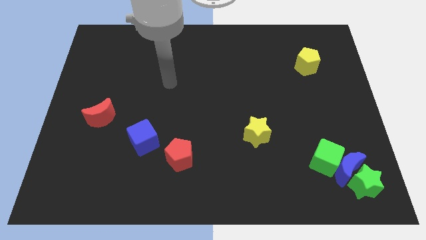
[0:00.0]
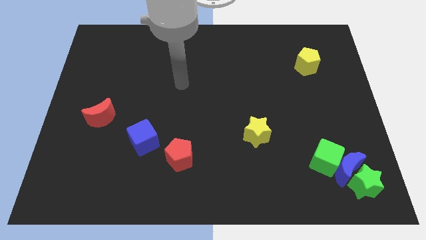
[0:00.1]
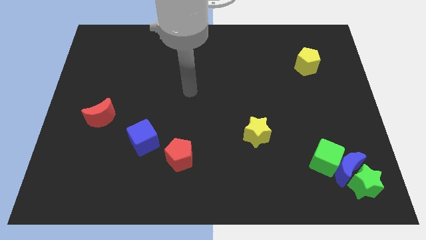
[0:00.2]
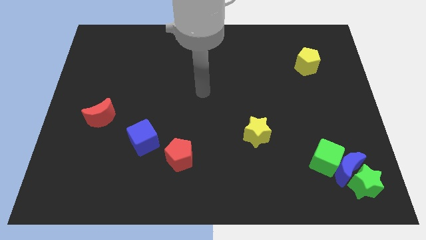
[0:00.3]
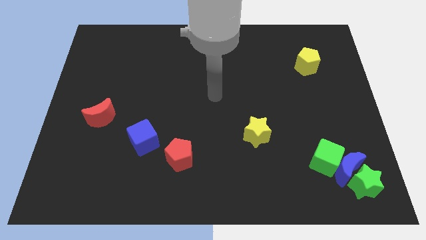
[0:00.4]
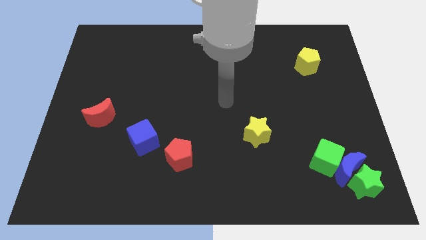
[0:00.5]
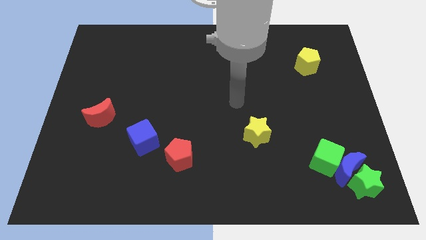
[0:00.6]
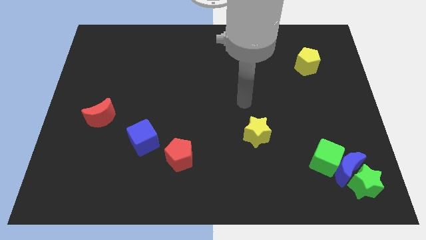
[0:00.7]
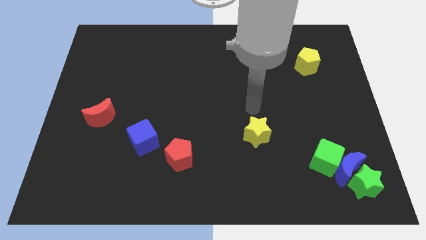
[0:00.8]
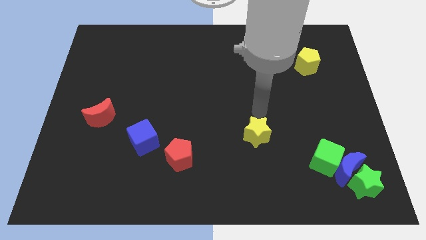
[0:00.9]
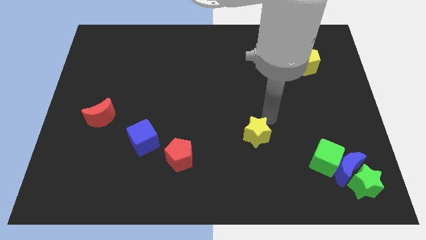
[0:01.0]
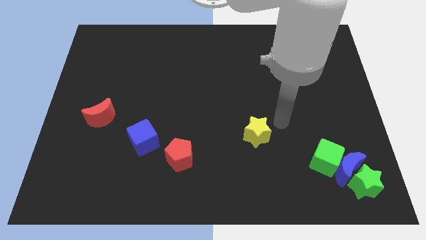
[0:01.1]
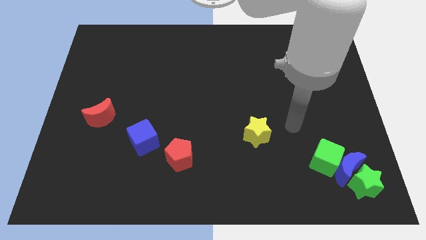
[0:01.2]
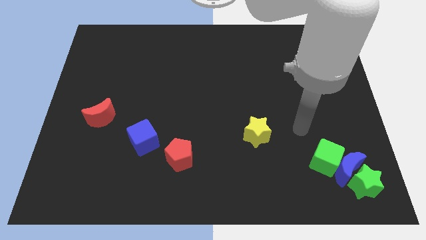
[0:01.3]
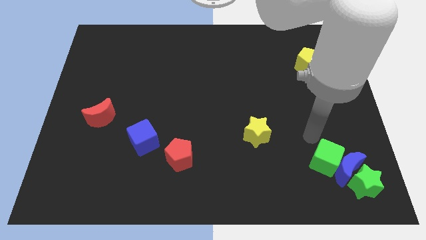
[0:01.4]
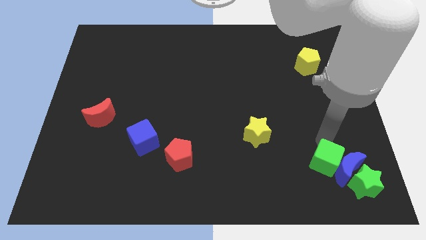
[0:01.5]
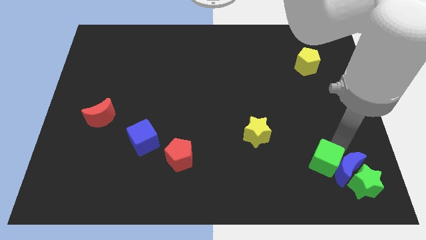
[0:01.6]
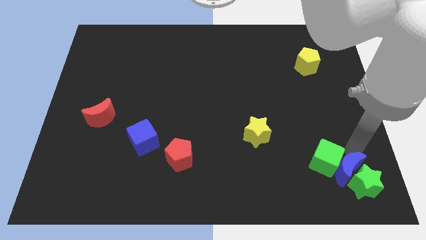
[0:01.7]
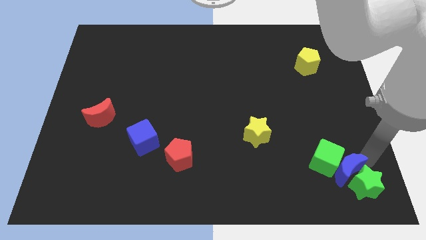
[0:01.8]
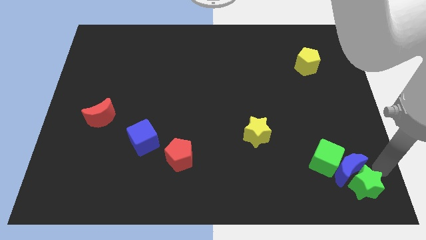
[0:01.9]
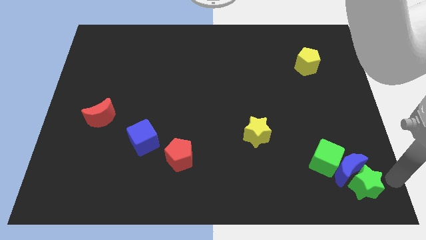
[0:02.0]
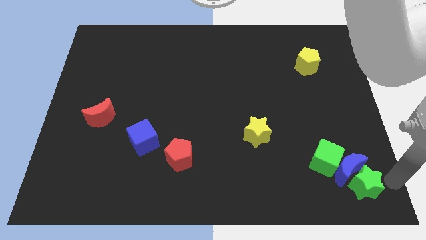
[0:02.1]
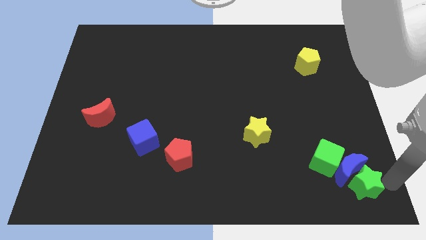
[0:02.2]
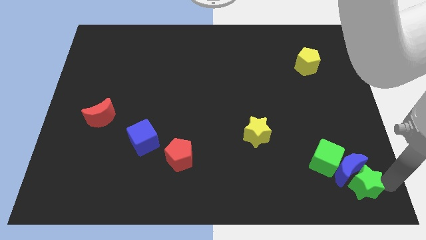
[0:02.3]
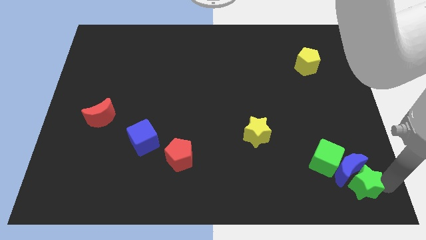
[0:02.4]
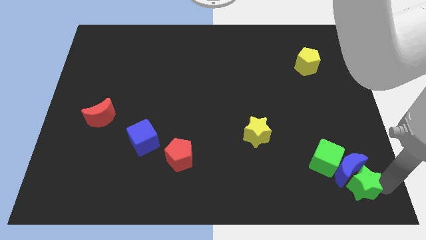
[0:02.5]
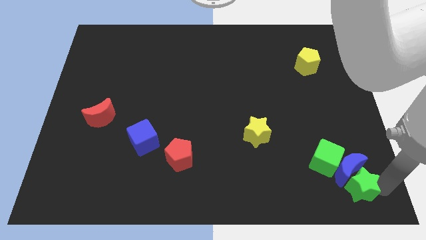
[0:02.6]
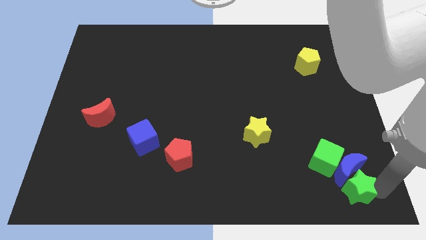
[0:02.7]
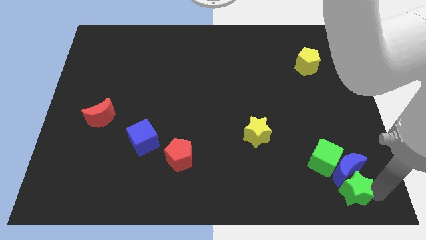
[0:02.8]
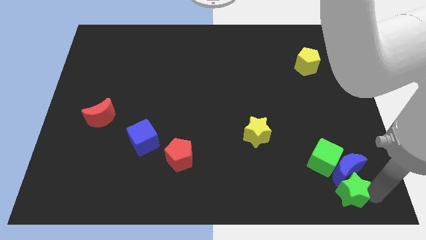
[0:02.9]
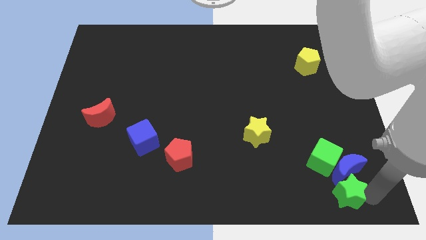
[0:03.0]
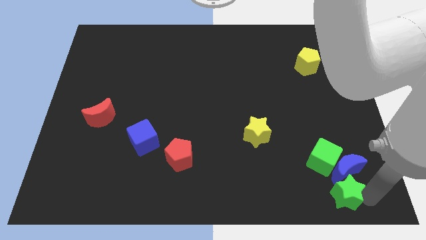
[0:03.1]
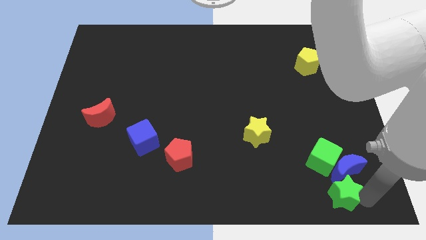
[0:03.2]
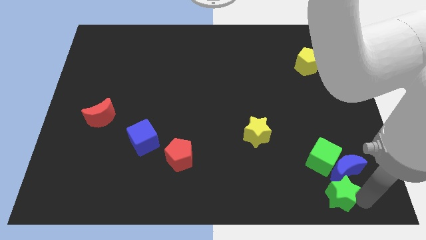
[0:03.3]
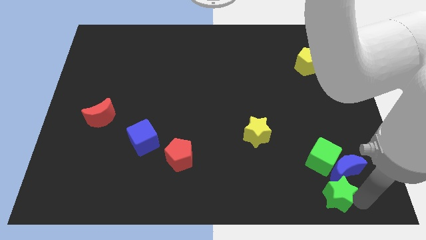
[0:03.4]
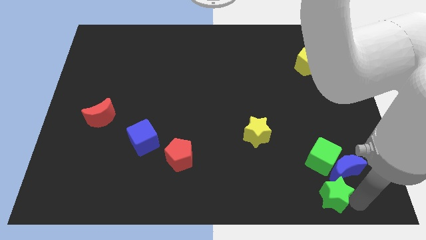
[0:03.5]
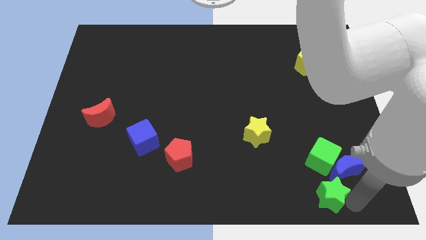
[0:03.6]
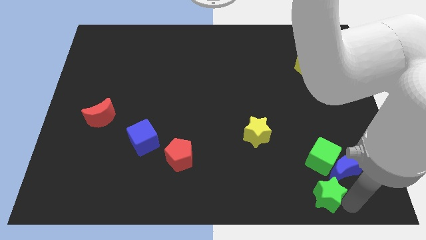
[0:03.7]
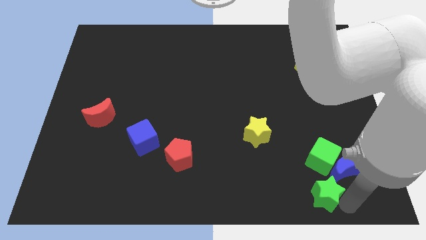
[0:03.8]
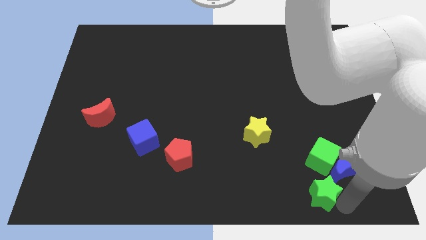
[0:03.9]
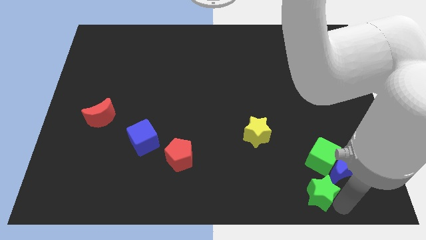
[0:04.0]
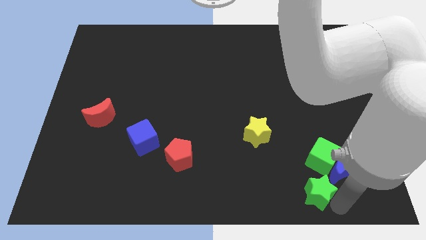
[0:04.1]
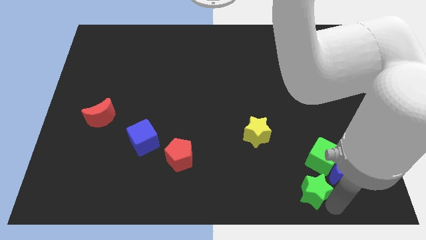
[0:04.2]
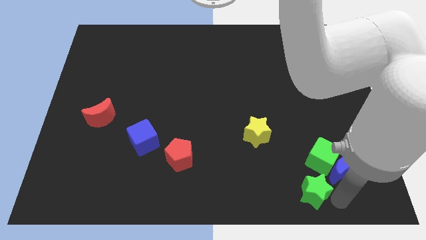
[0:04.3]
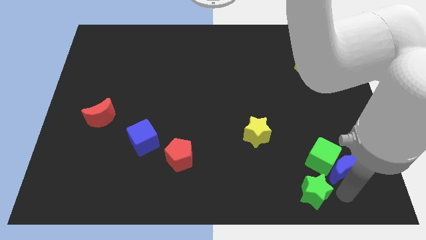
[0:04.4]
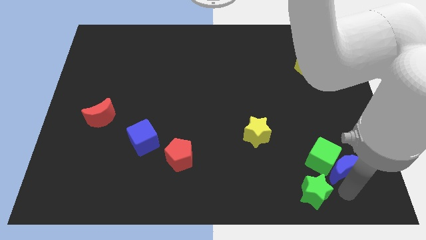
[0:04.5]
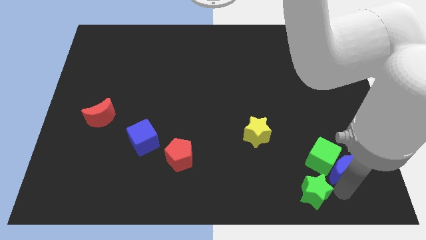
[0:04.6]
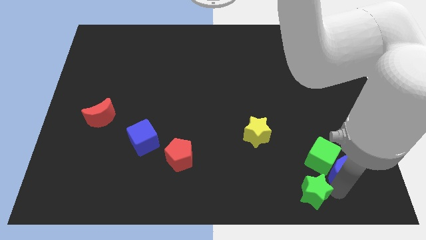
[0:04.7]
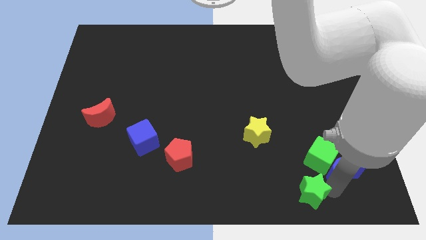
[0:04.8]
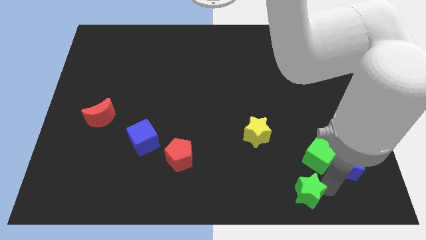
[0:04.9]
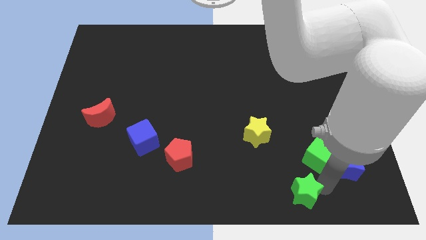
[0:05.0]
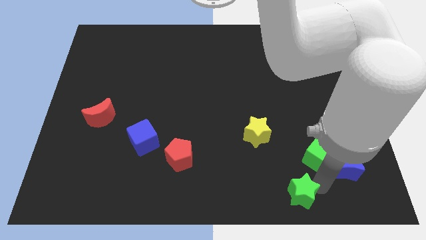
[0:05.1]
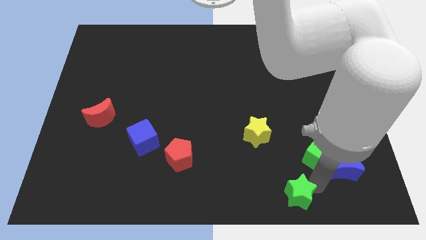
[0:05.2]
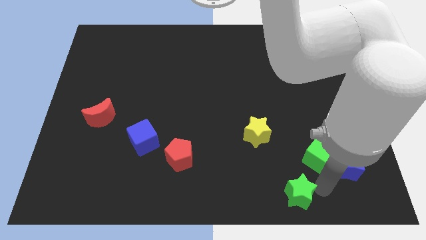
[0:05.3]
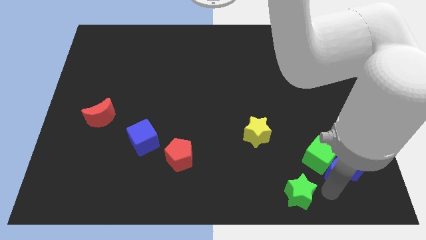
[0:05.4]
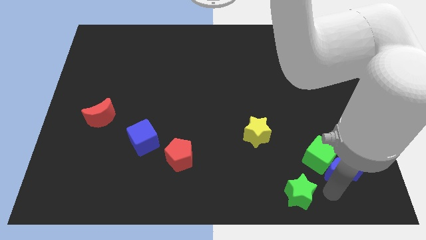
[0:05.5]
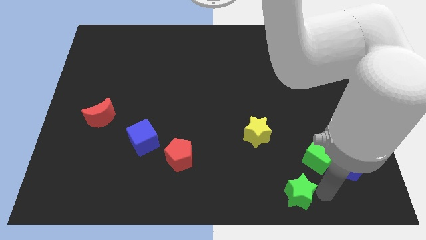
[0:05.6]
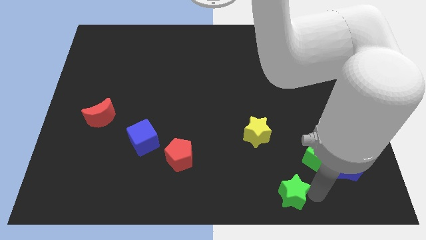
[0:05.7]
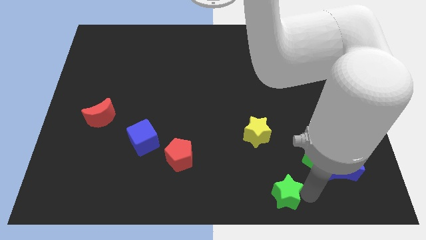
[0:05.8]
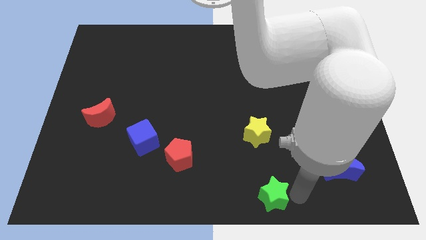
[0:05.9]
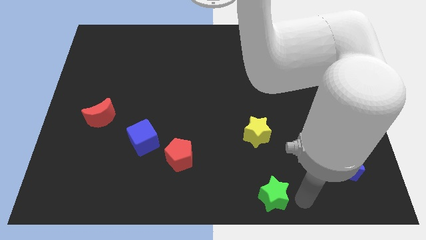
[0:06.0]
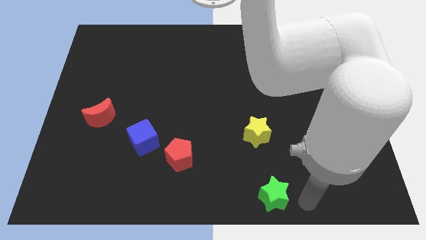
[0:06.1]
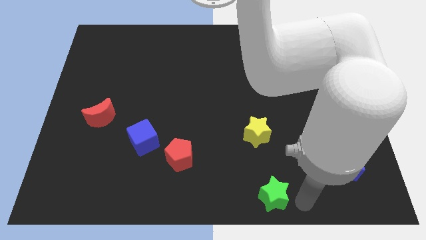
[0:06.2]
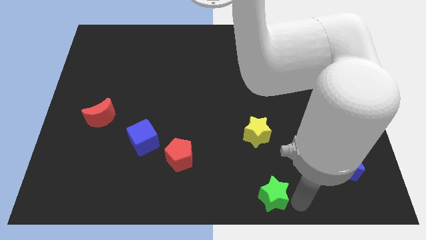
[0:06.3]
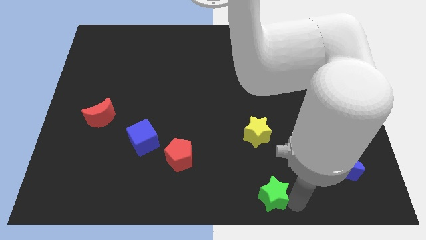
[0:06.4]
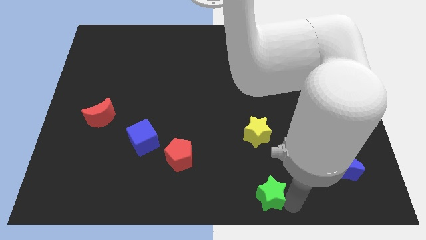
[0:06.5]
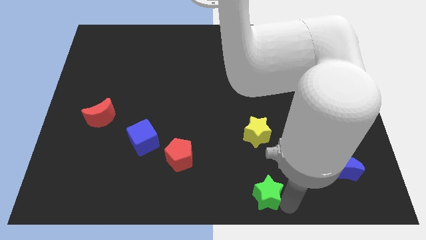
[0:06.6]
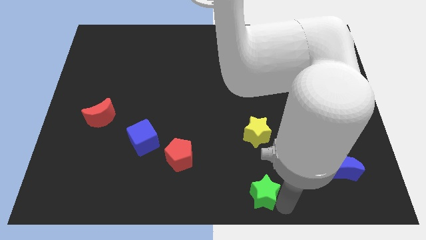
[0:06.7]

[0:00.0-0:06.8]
push the green star to the left

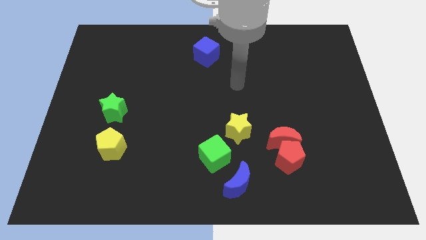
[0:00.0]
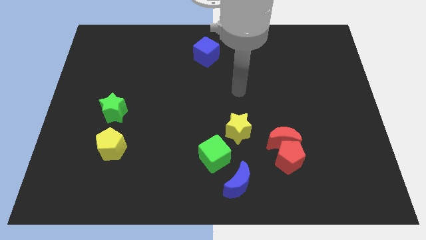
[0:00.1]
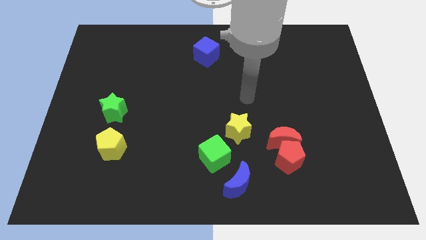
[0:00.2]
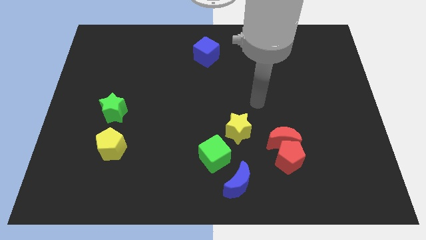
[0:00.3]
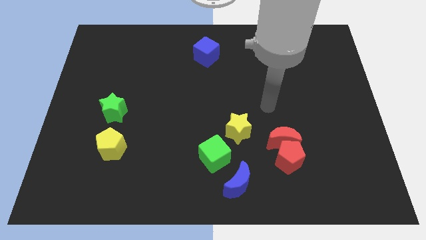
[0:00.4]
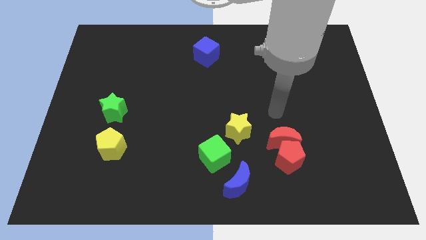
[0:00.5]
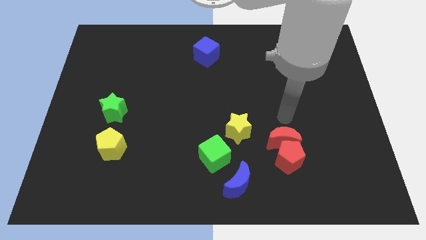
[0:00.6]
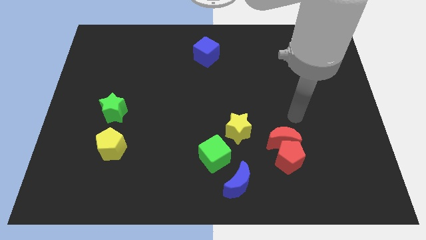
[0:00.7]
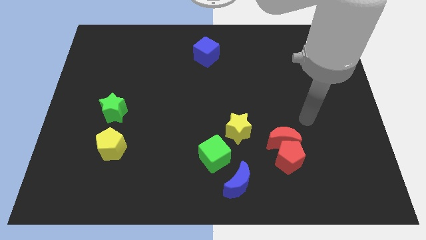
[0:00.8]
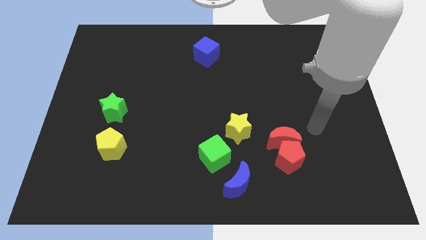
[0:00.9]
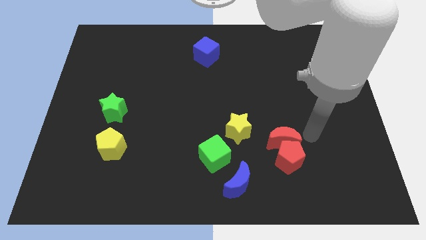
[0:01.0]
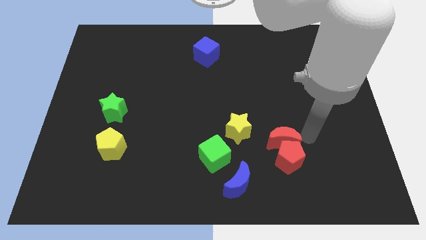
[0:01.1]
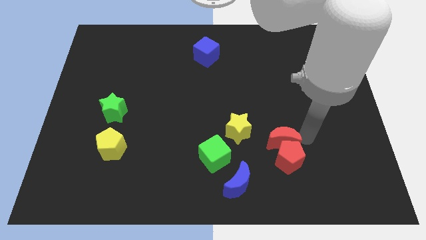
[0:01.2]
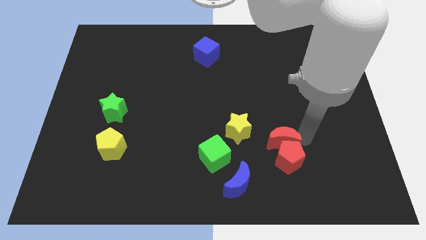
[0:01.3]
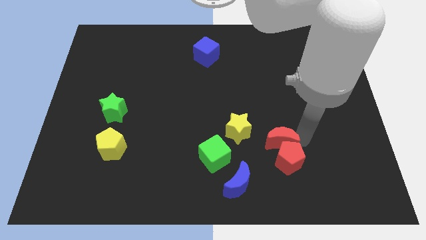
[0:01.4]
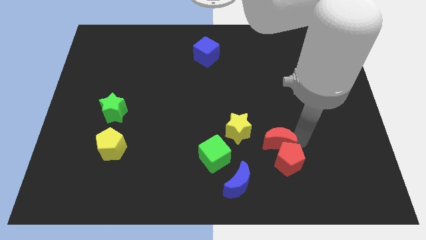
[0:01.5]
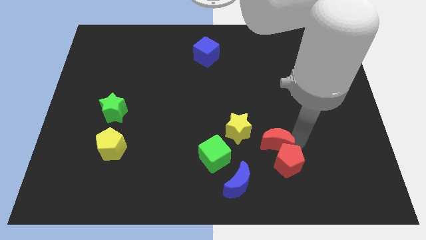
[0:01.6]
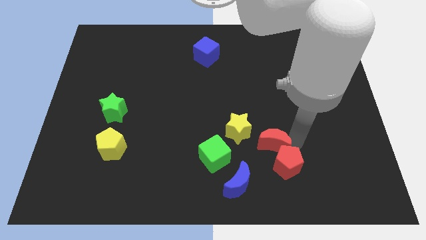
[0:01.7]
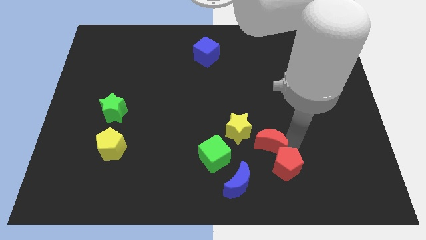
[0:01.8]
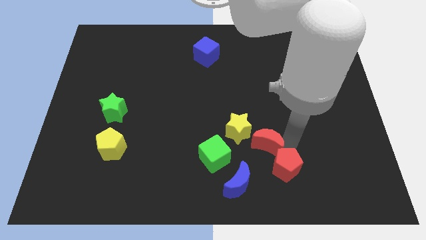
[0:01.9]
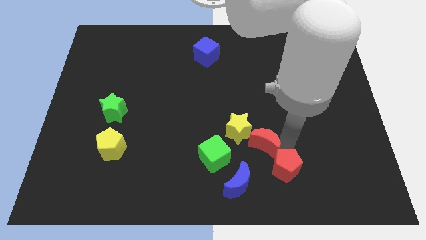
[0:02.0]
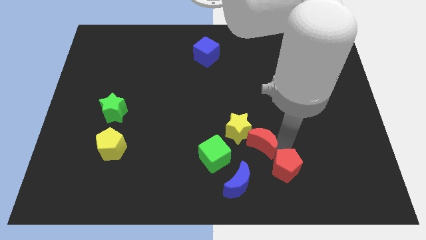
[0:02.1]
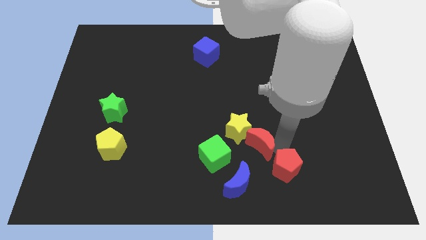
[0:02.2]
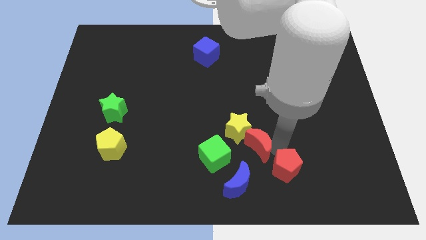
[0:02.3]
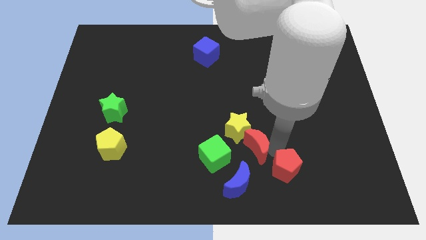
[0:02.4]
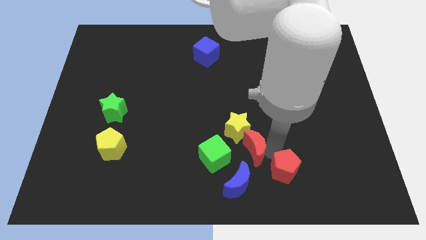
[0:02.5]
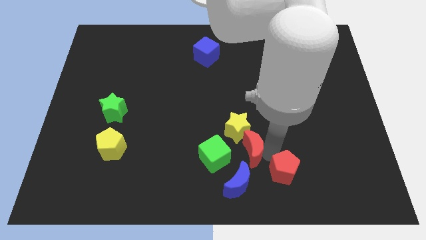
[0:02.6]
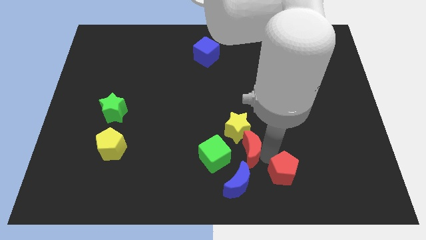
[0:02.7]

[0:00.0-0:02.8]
slightly push the red moon left
